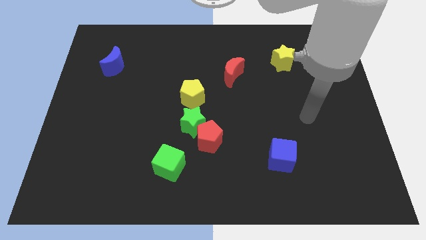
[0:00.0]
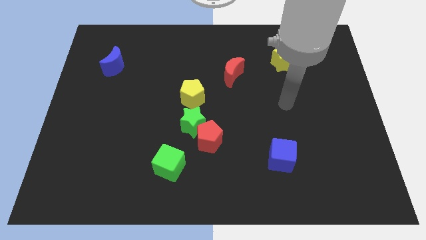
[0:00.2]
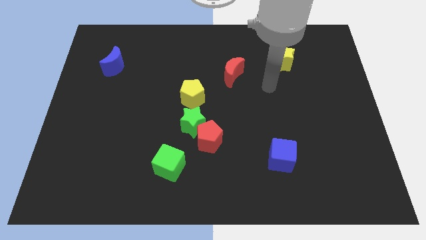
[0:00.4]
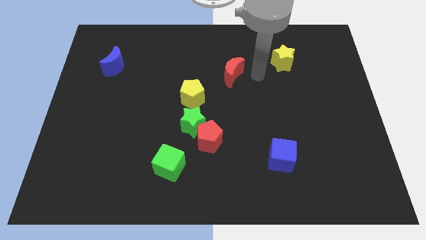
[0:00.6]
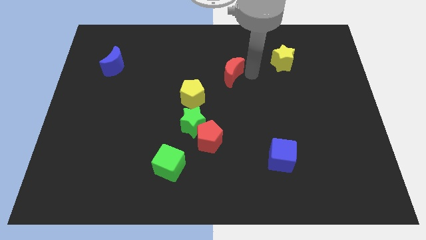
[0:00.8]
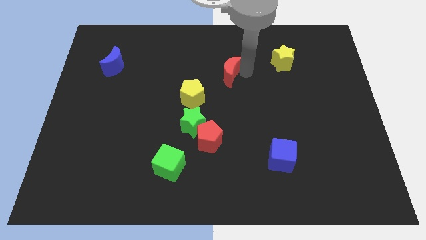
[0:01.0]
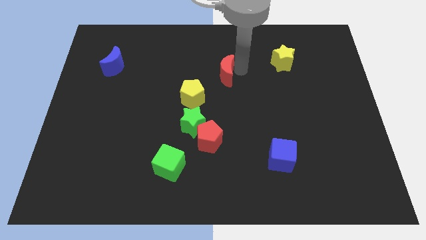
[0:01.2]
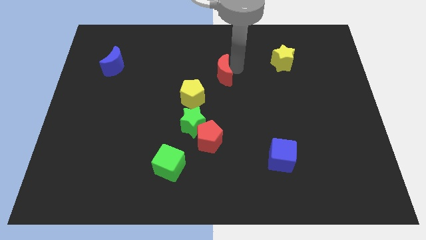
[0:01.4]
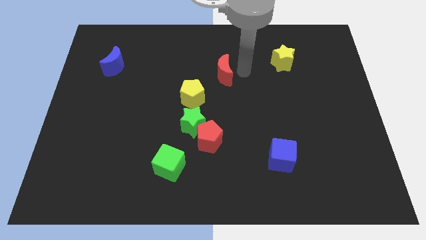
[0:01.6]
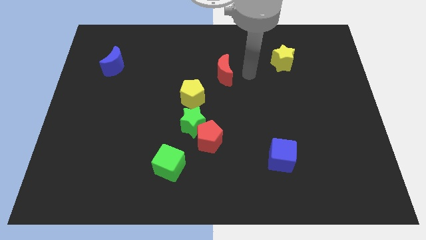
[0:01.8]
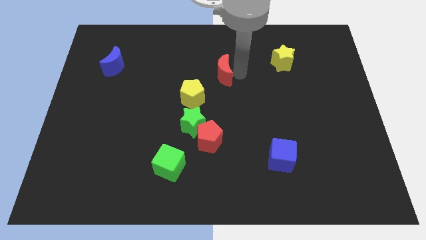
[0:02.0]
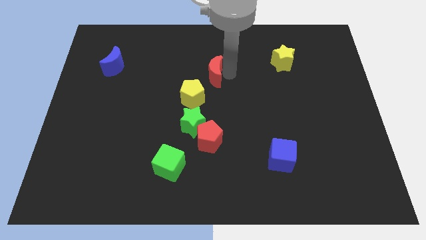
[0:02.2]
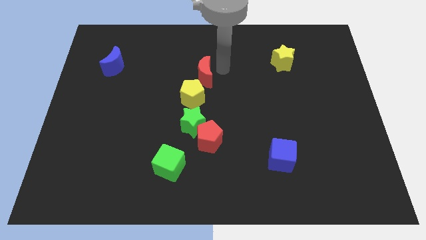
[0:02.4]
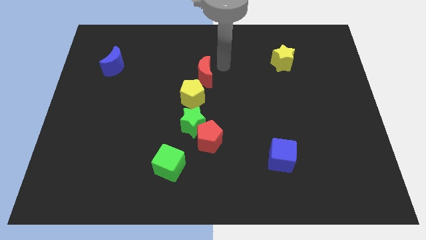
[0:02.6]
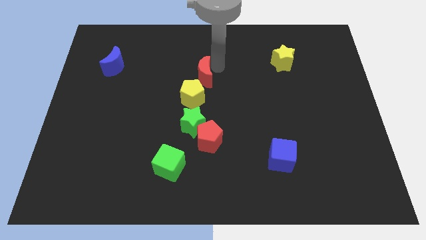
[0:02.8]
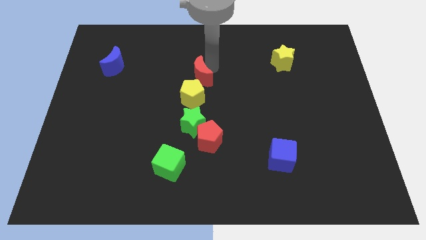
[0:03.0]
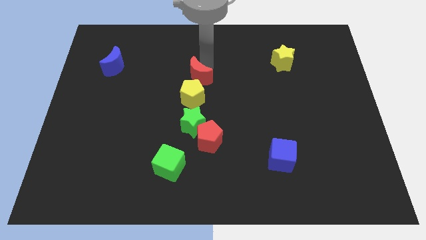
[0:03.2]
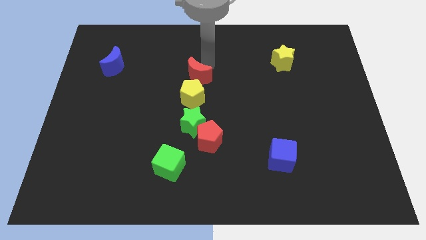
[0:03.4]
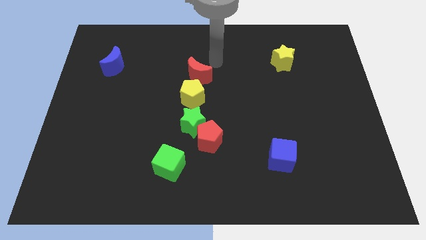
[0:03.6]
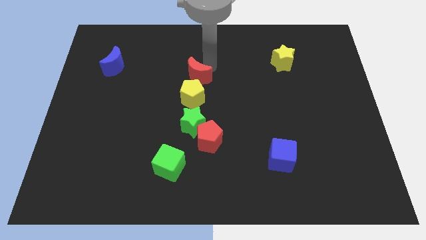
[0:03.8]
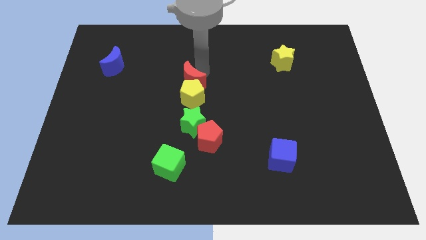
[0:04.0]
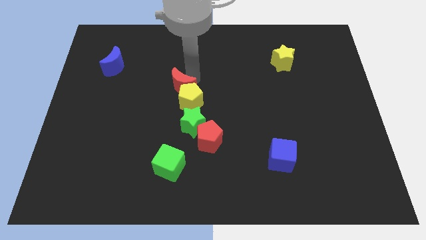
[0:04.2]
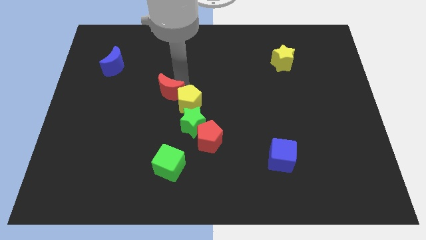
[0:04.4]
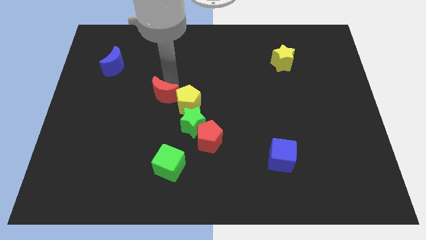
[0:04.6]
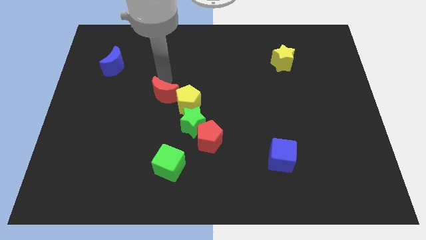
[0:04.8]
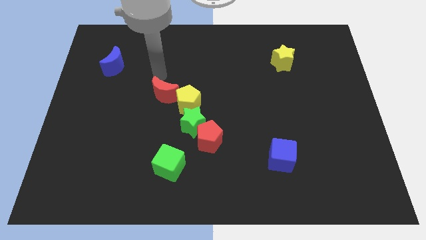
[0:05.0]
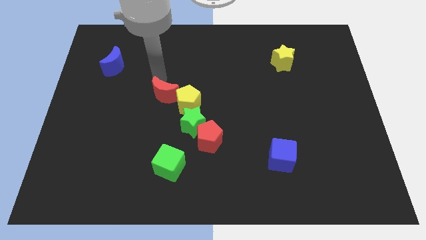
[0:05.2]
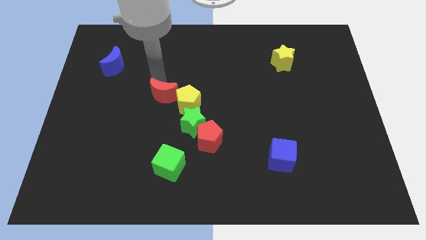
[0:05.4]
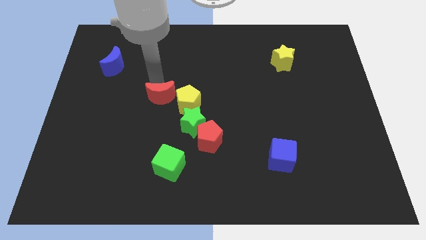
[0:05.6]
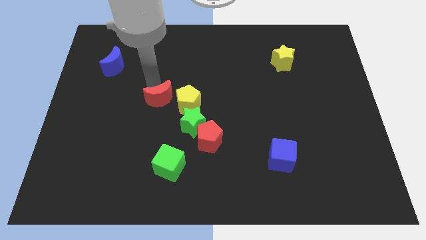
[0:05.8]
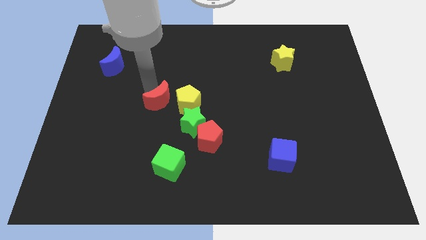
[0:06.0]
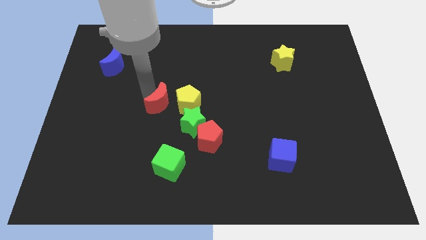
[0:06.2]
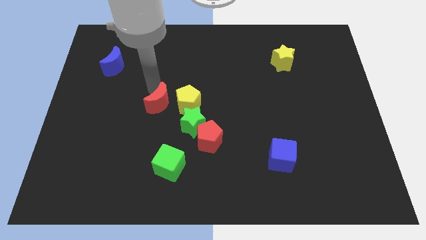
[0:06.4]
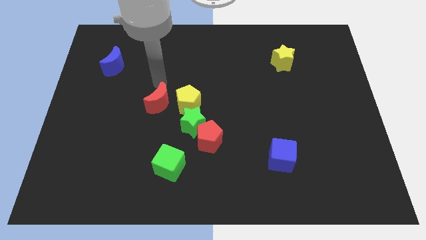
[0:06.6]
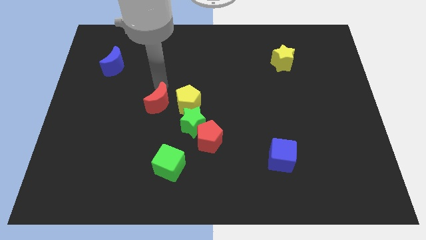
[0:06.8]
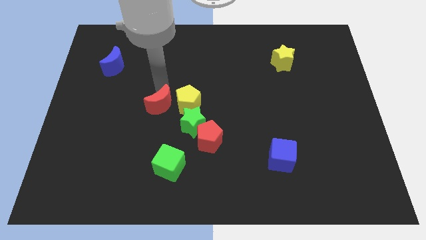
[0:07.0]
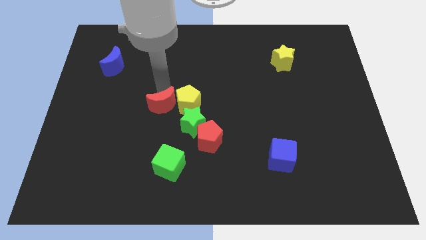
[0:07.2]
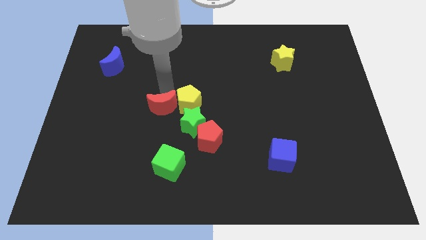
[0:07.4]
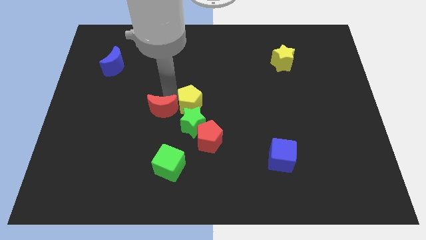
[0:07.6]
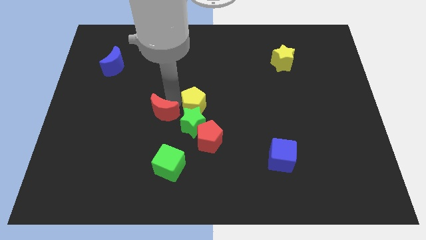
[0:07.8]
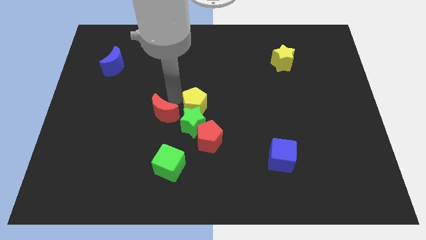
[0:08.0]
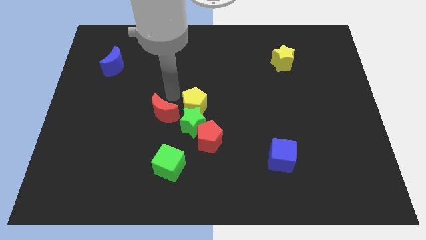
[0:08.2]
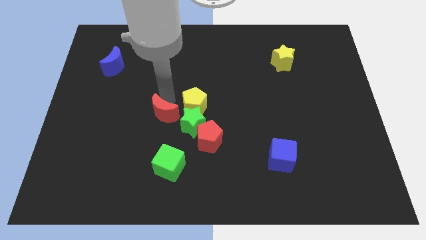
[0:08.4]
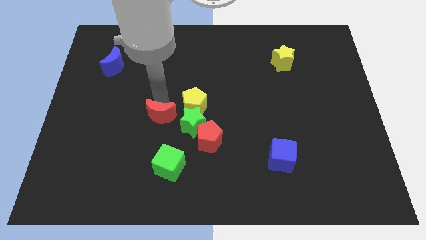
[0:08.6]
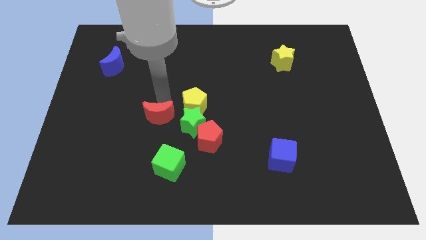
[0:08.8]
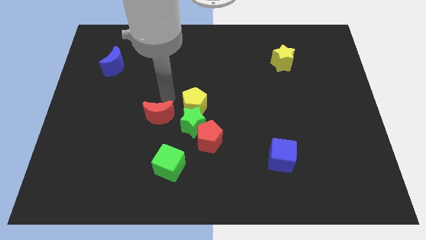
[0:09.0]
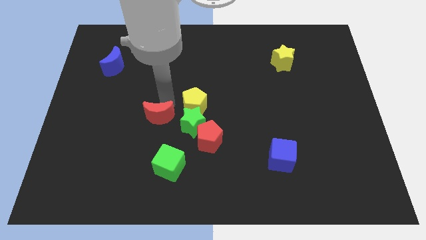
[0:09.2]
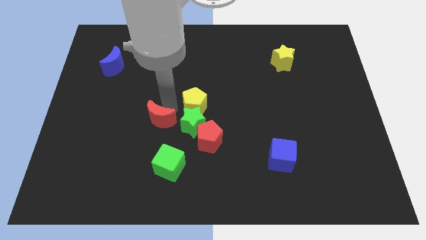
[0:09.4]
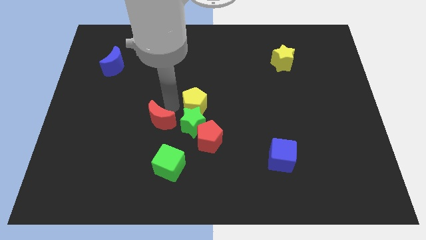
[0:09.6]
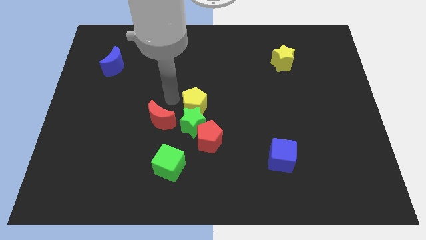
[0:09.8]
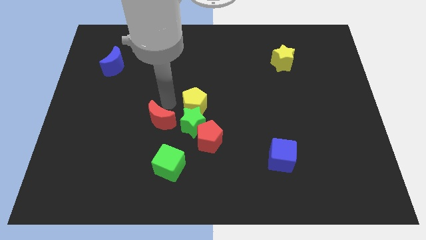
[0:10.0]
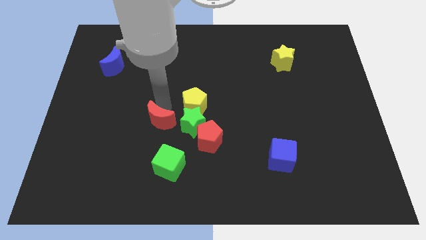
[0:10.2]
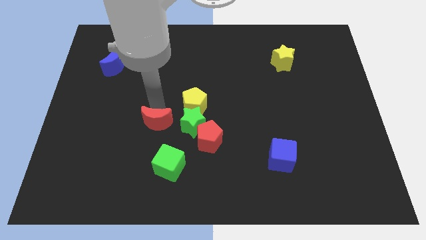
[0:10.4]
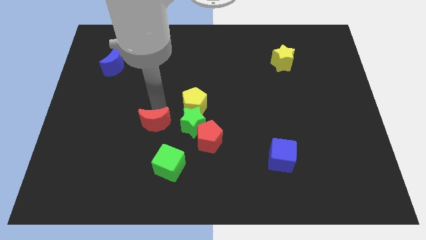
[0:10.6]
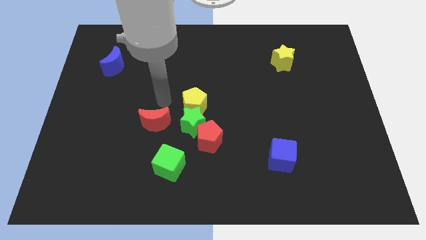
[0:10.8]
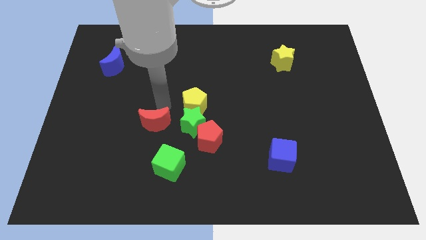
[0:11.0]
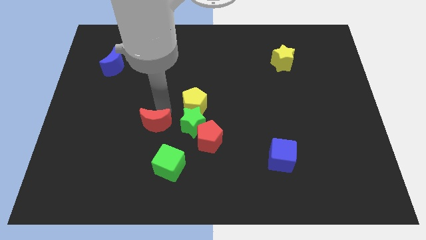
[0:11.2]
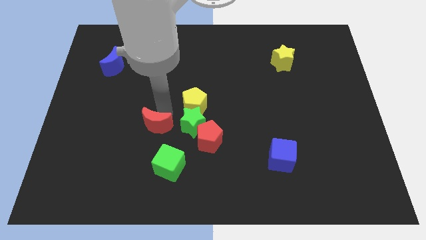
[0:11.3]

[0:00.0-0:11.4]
slide the red moon to the top left of the green cube

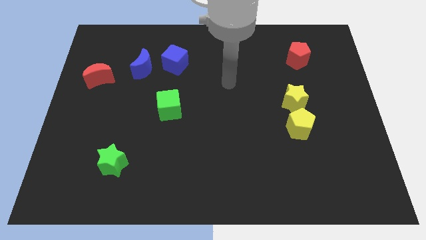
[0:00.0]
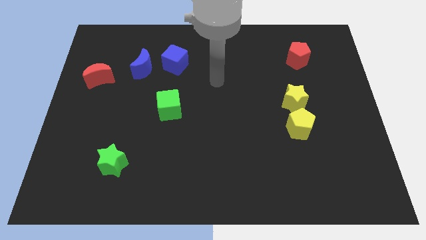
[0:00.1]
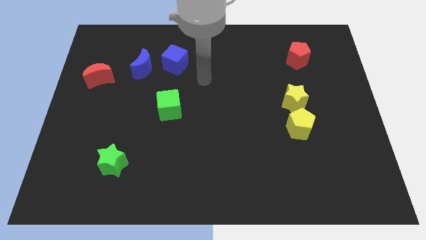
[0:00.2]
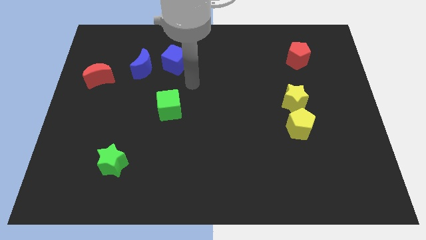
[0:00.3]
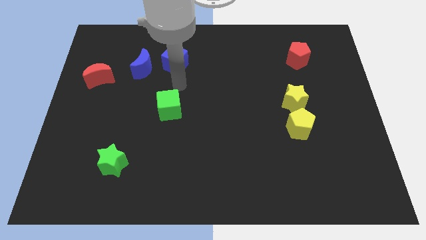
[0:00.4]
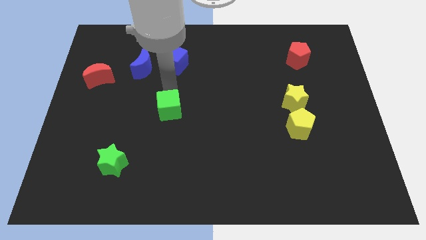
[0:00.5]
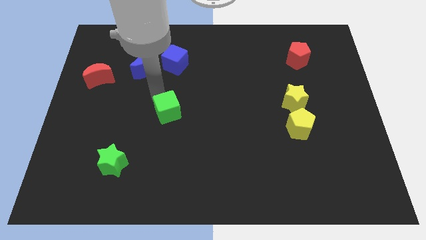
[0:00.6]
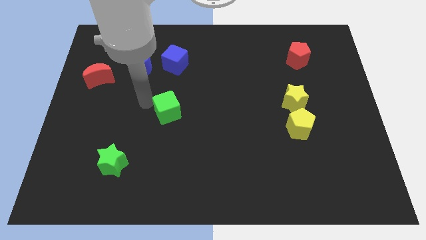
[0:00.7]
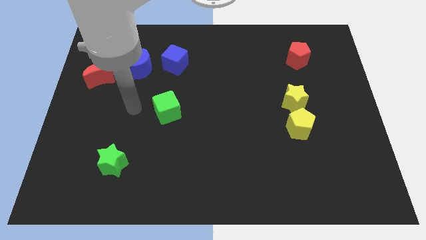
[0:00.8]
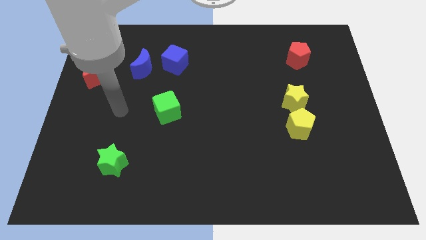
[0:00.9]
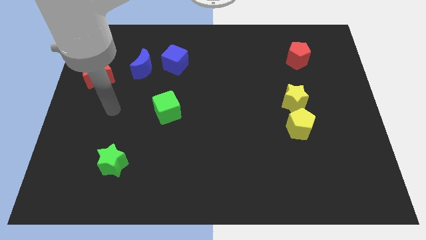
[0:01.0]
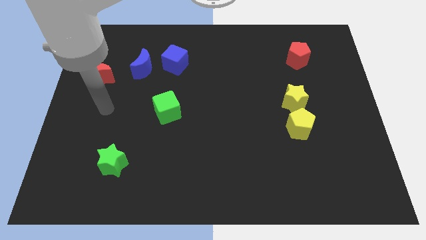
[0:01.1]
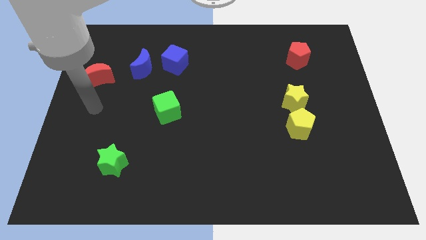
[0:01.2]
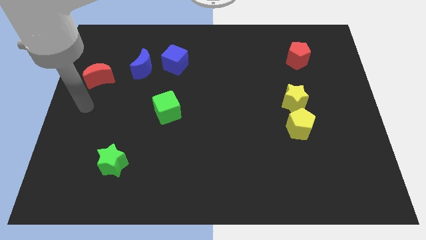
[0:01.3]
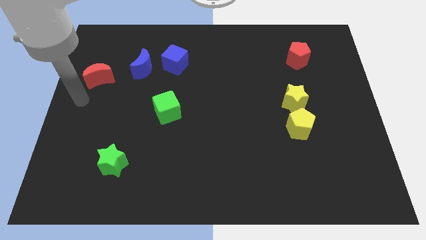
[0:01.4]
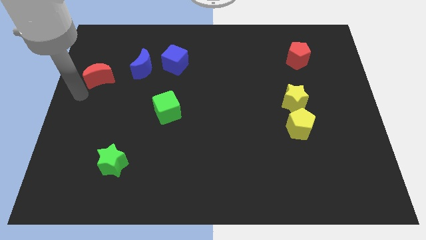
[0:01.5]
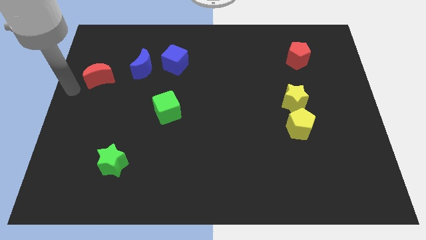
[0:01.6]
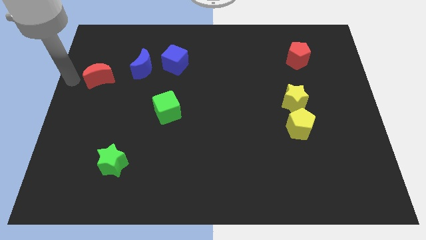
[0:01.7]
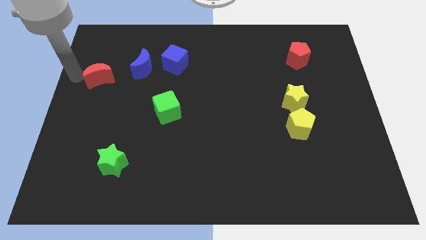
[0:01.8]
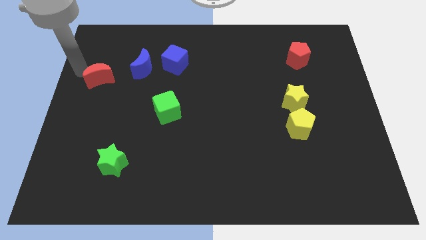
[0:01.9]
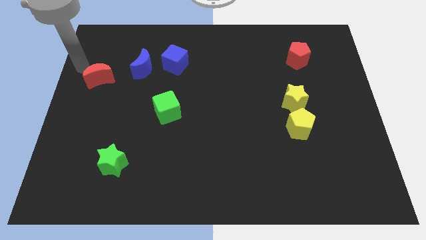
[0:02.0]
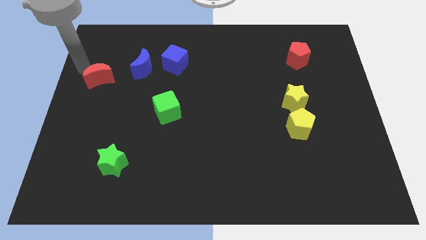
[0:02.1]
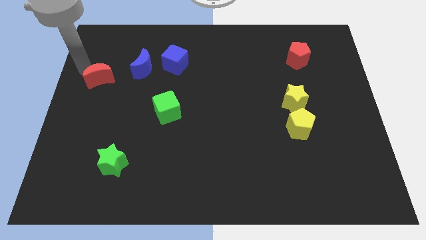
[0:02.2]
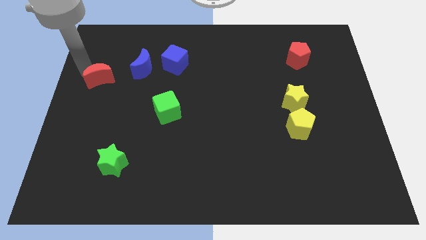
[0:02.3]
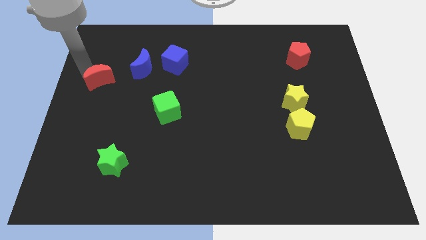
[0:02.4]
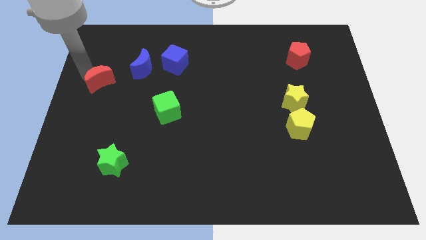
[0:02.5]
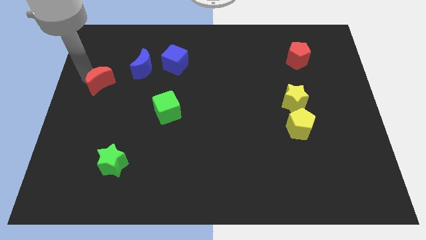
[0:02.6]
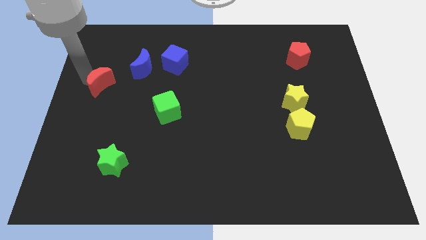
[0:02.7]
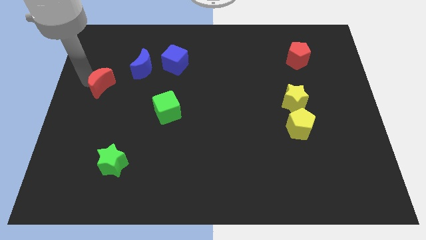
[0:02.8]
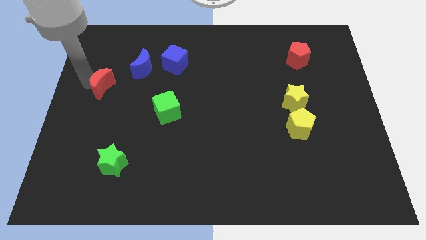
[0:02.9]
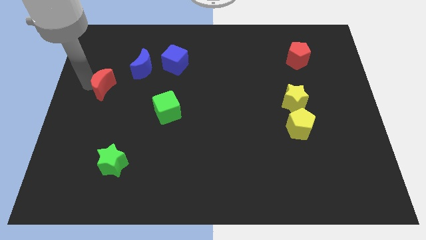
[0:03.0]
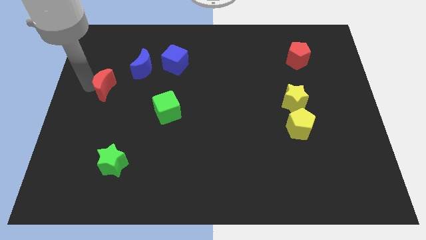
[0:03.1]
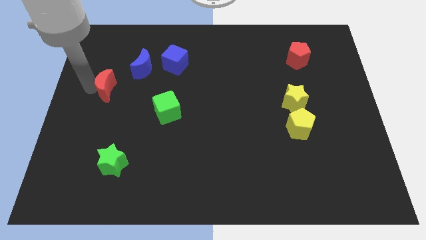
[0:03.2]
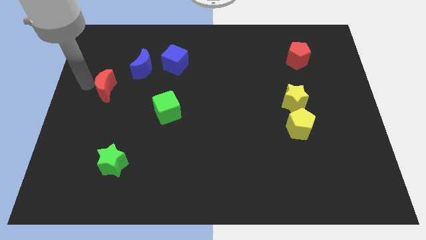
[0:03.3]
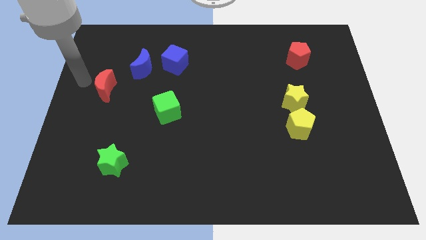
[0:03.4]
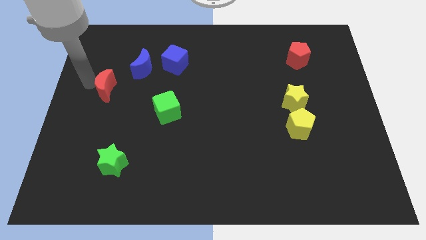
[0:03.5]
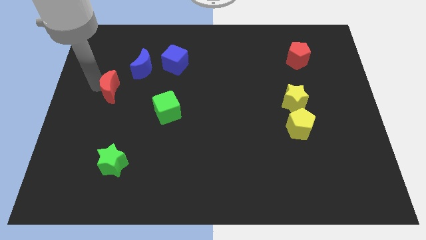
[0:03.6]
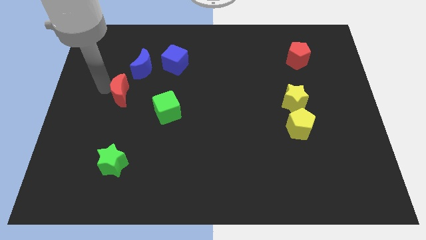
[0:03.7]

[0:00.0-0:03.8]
move the red moon to the bottom side of the blue moon
